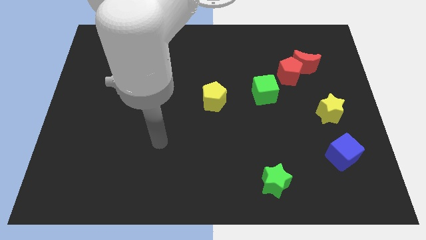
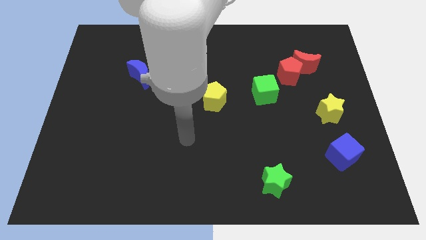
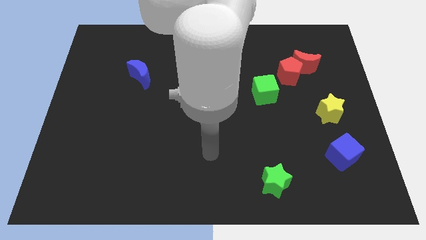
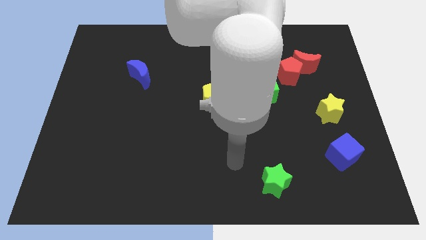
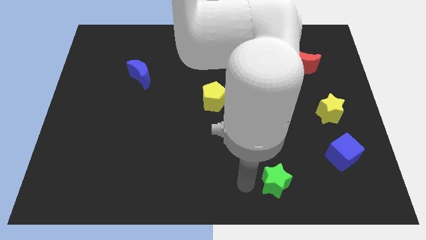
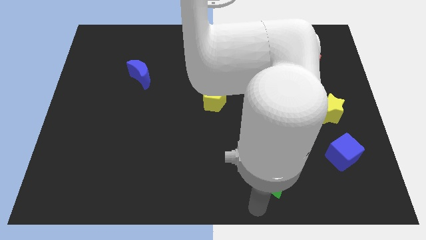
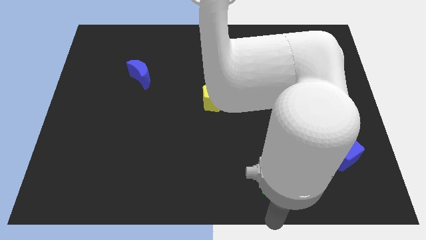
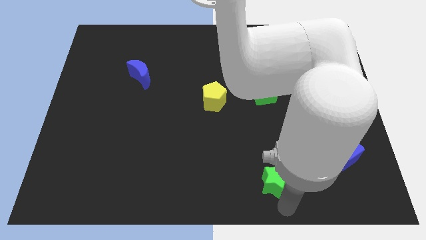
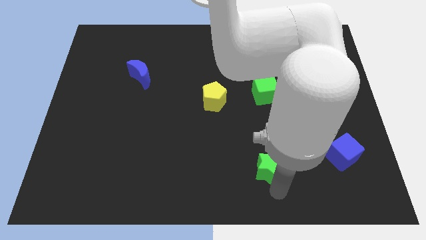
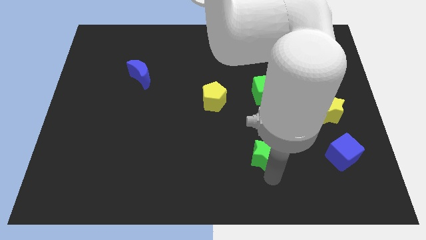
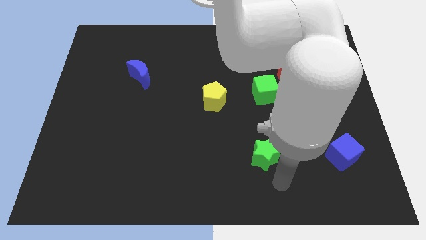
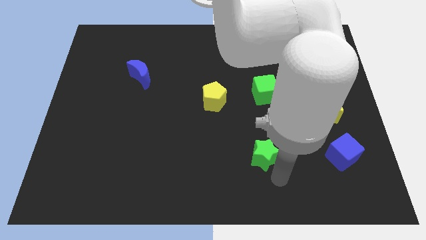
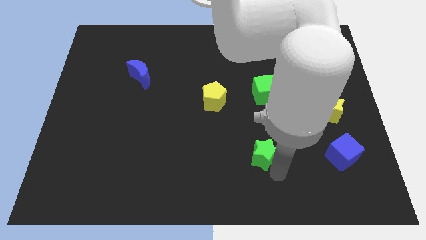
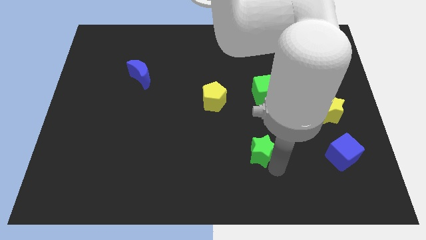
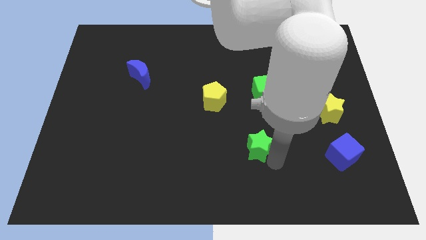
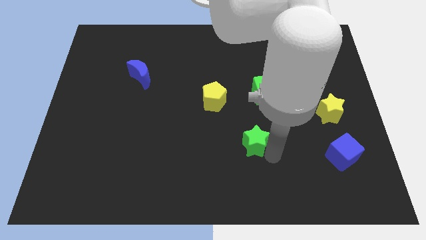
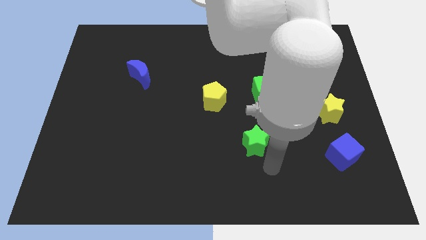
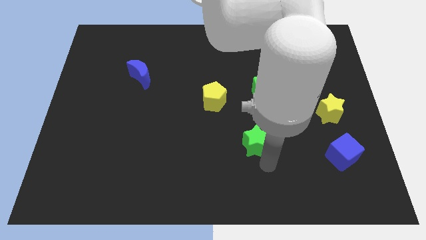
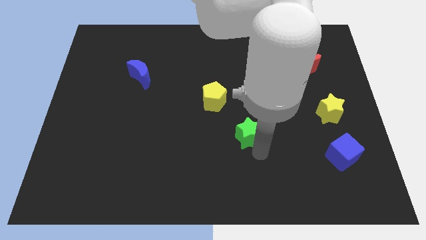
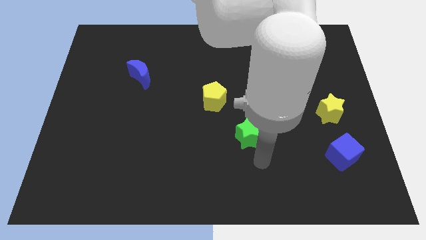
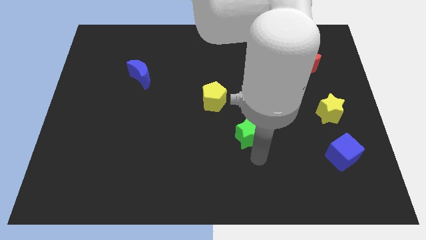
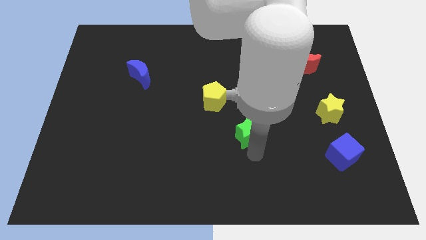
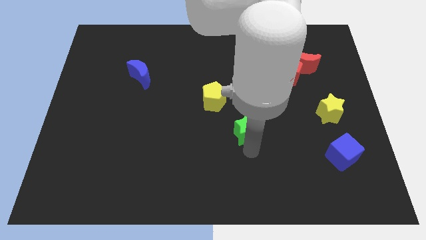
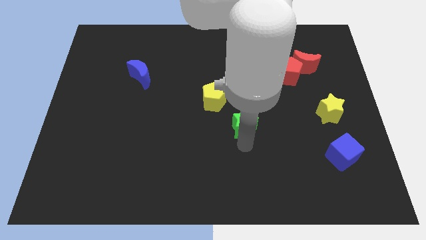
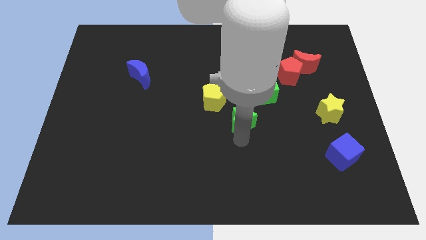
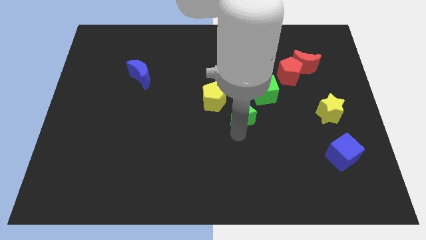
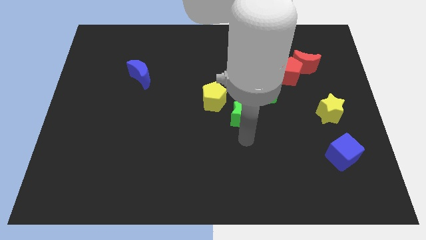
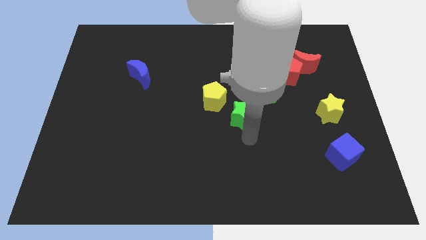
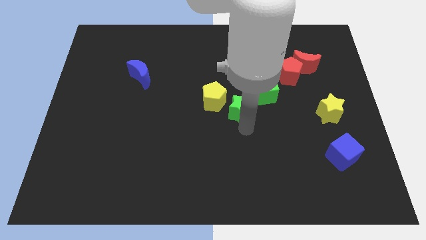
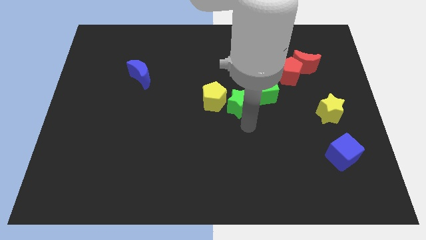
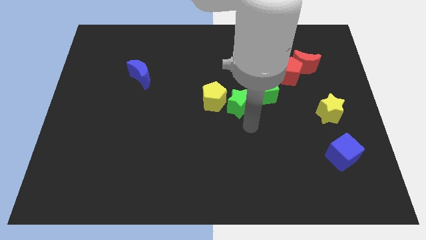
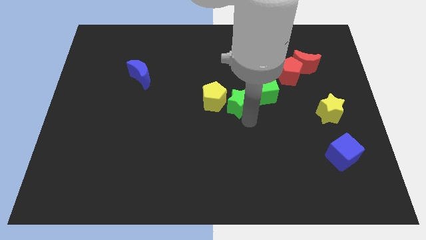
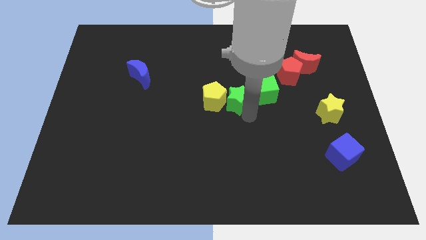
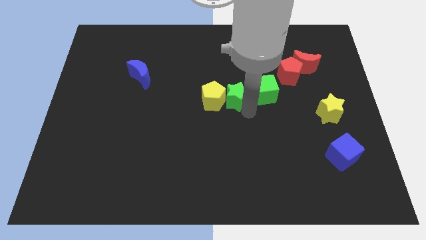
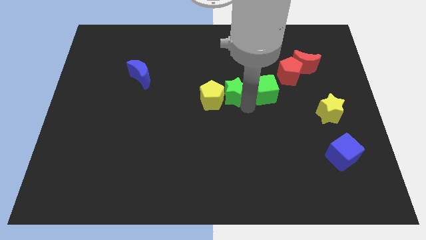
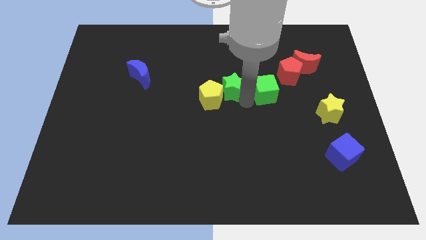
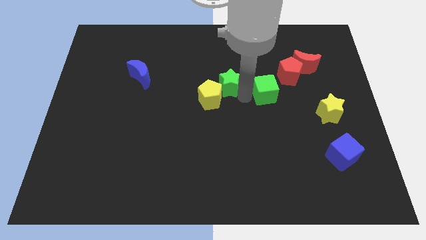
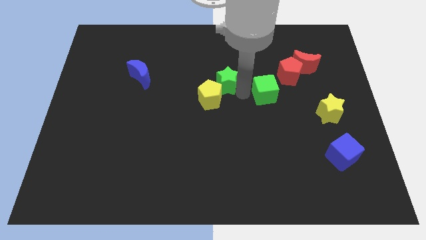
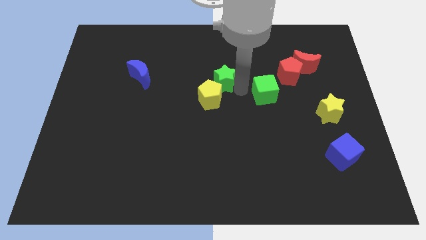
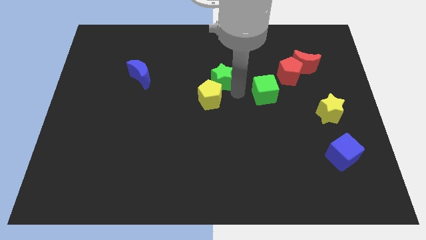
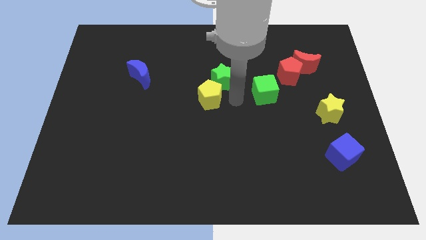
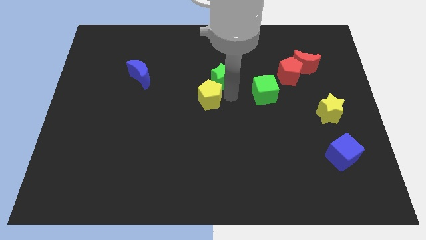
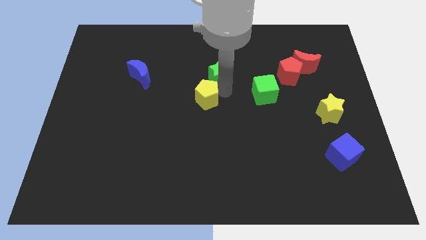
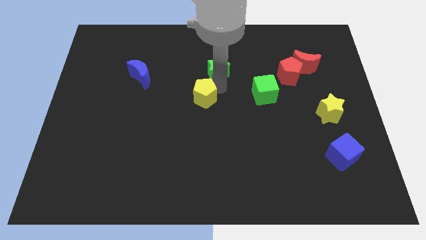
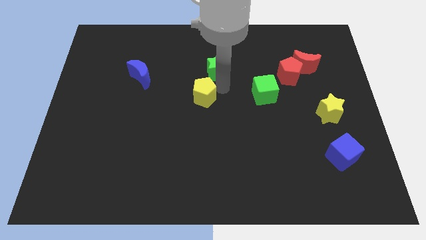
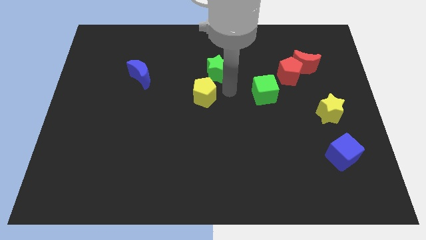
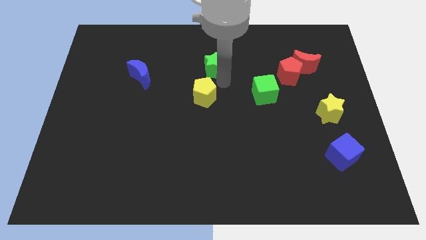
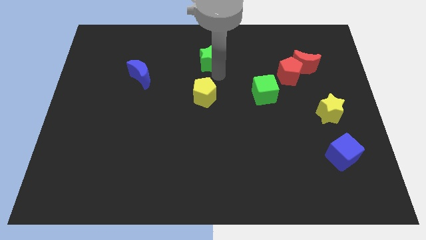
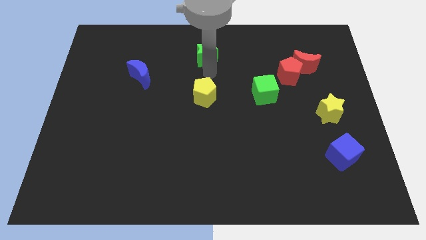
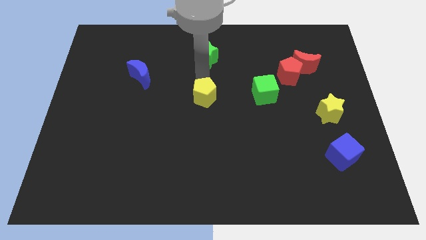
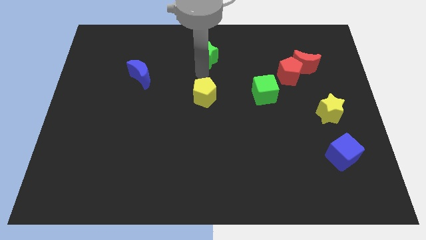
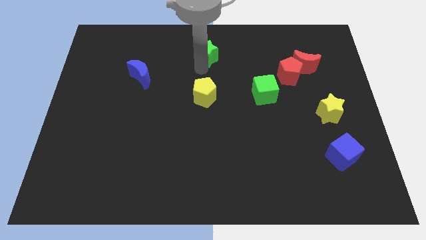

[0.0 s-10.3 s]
move the green star to the top

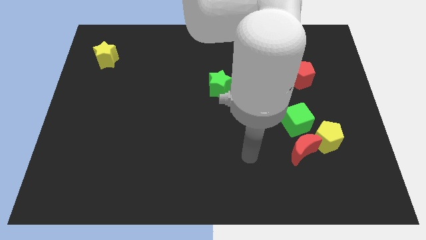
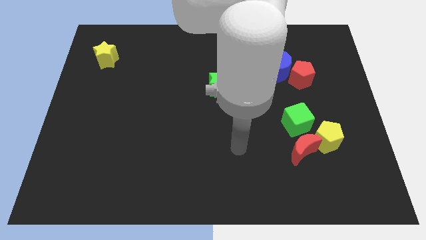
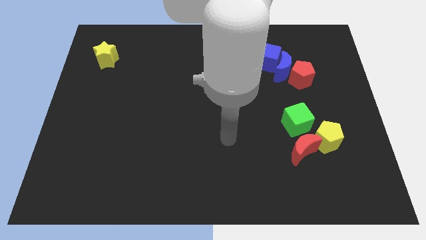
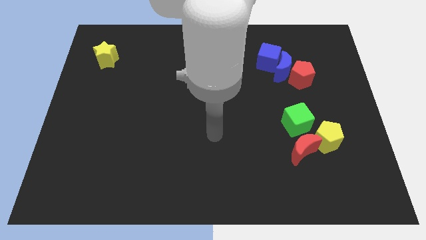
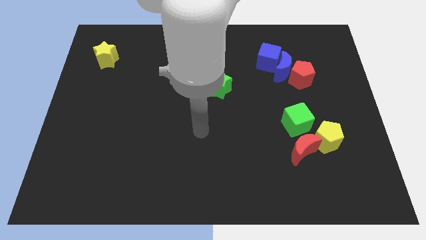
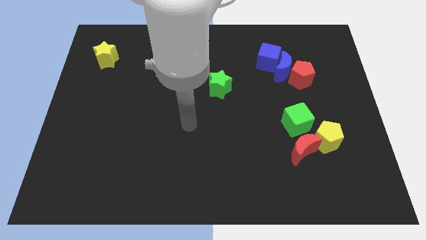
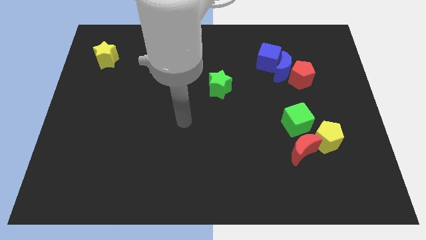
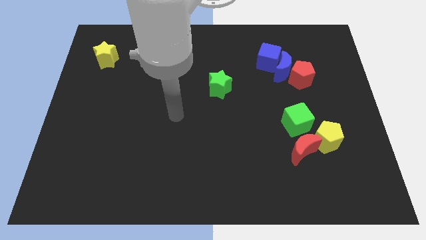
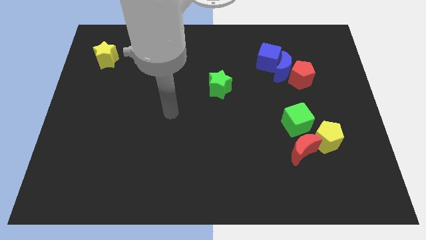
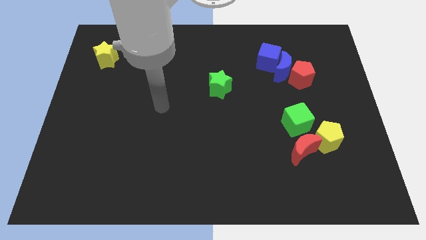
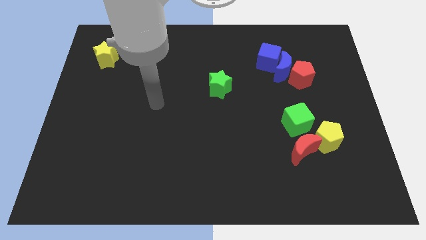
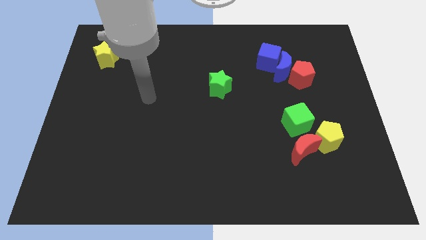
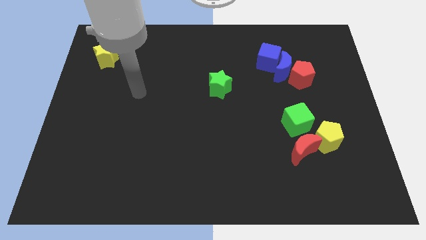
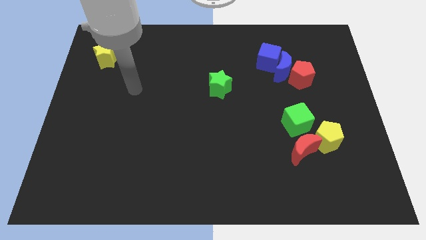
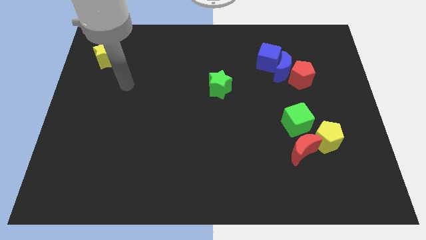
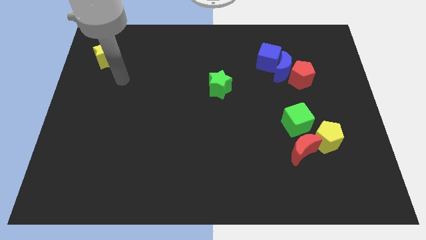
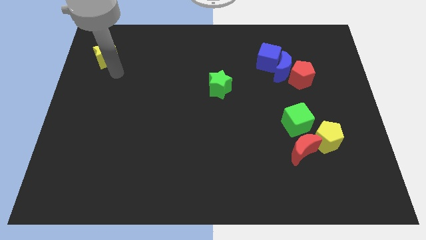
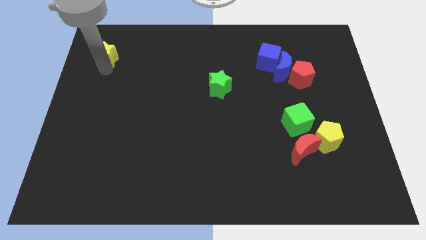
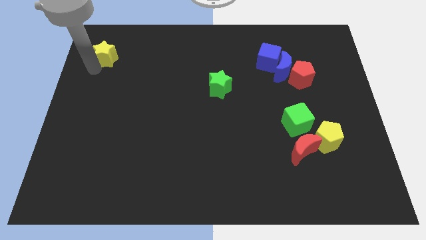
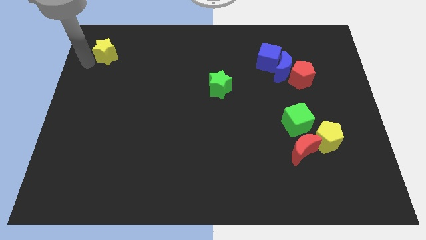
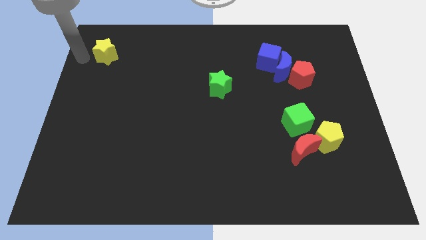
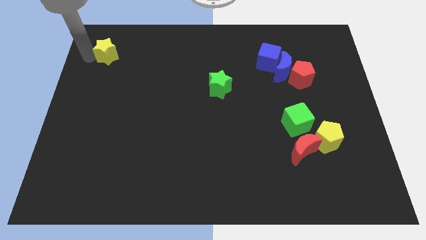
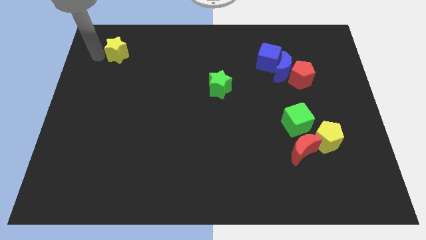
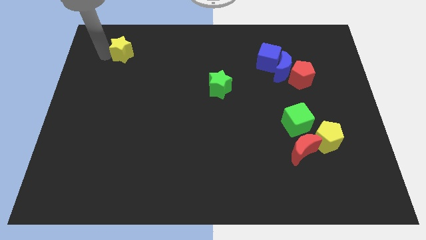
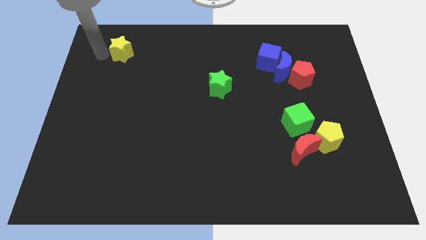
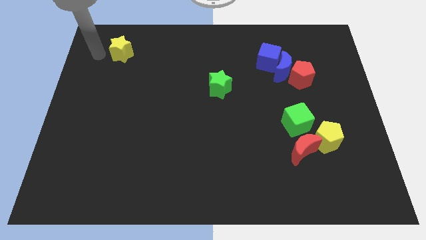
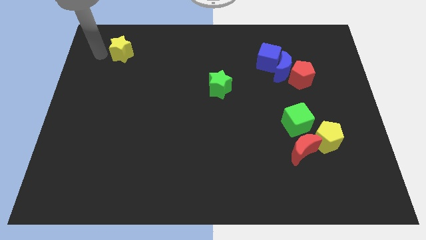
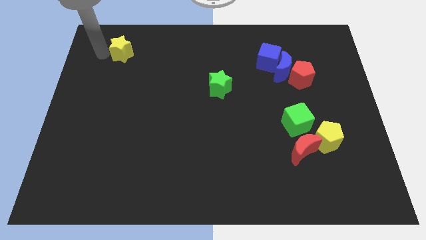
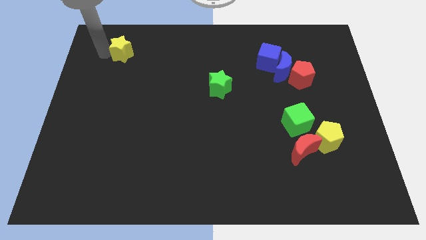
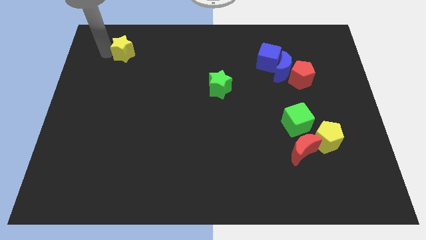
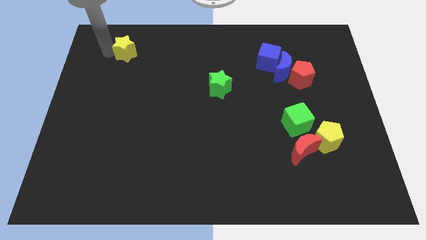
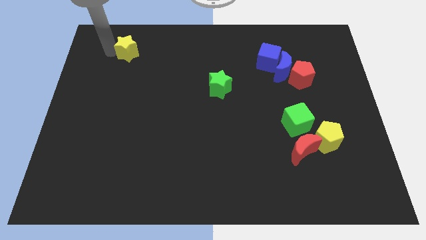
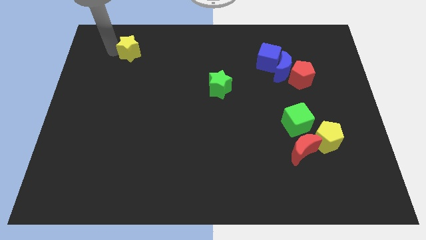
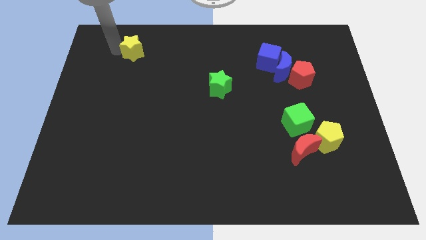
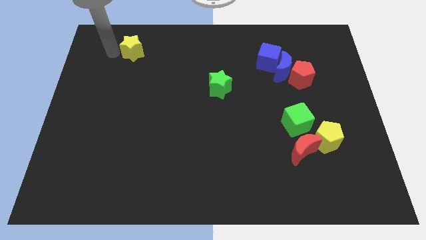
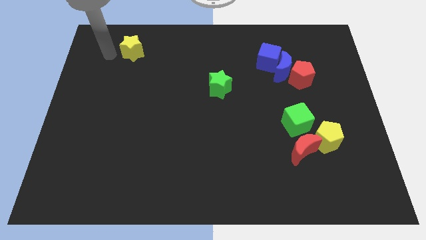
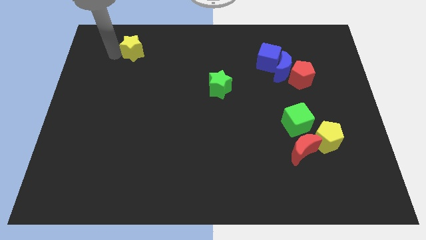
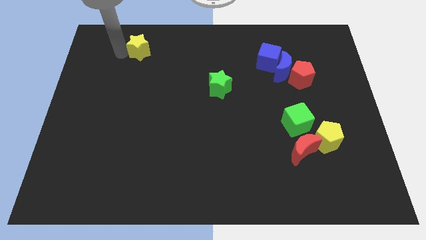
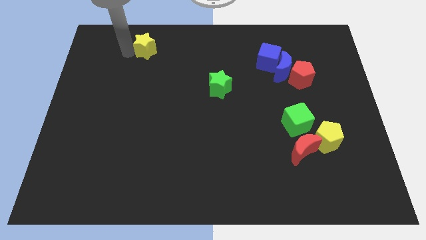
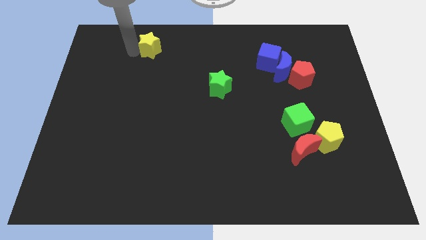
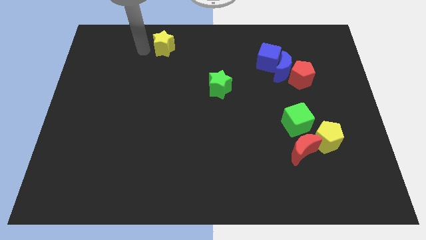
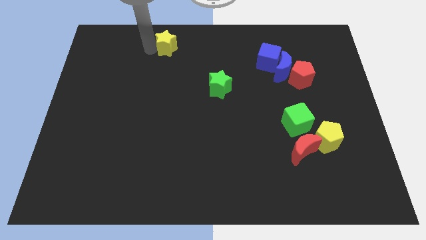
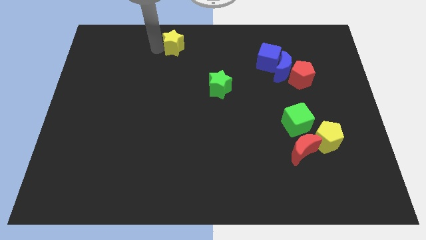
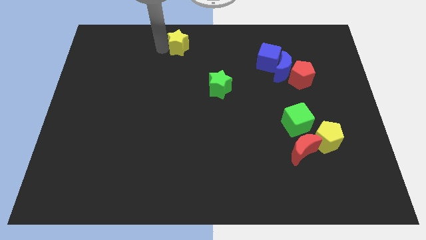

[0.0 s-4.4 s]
push the yellow star to the top
